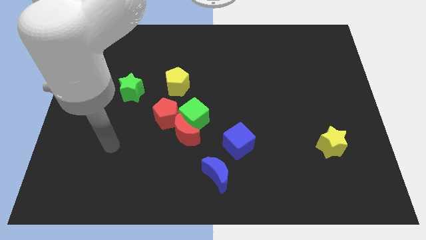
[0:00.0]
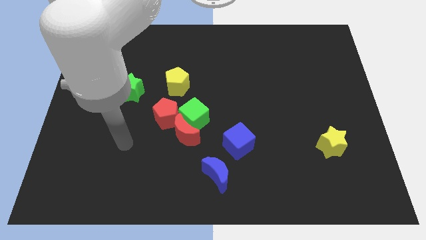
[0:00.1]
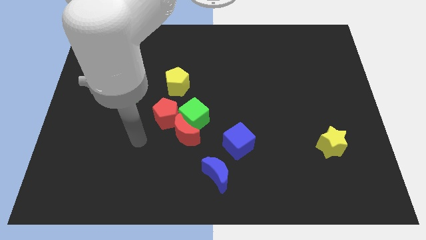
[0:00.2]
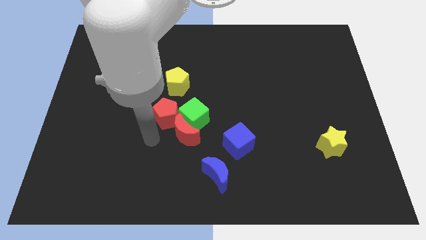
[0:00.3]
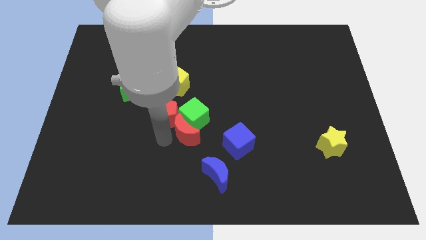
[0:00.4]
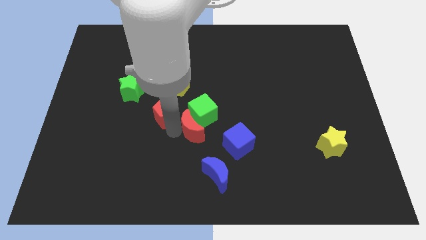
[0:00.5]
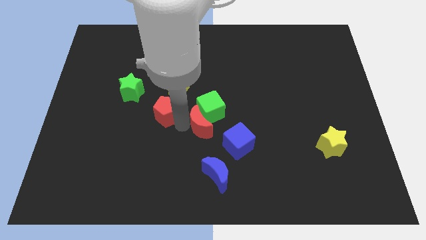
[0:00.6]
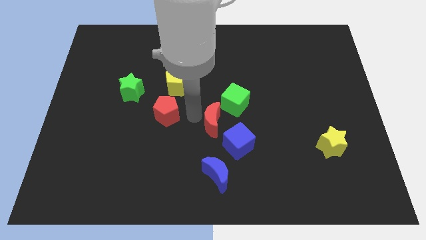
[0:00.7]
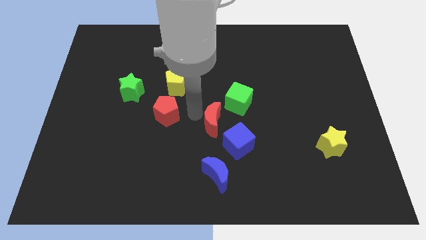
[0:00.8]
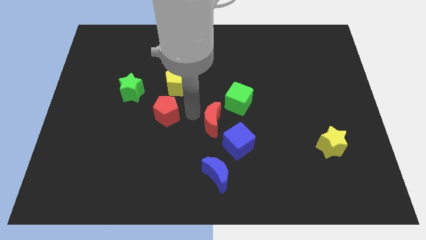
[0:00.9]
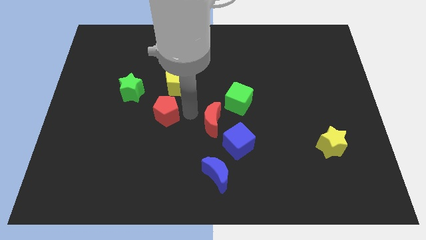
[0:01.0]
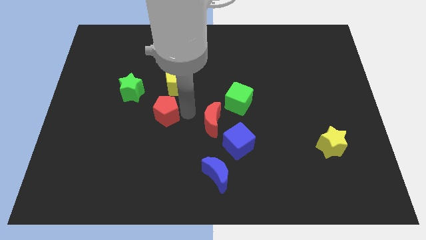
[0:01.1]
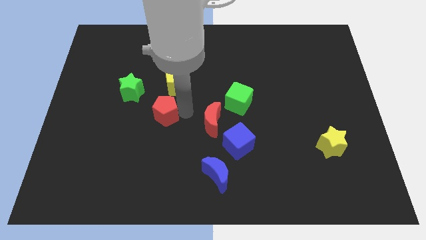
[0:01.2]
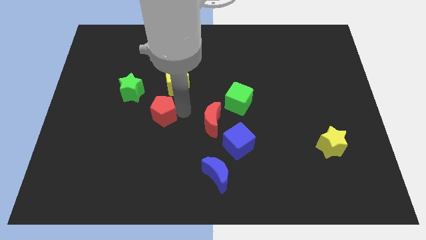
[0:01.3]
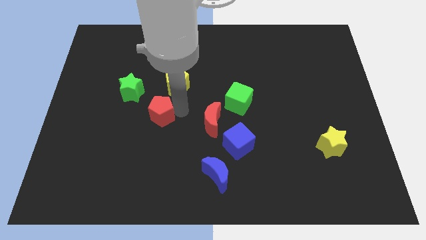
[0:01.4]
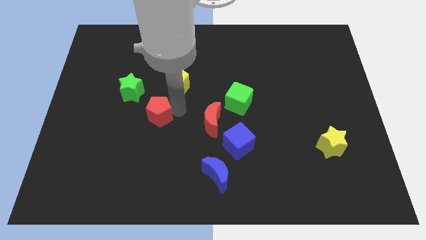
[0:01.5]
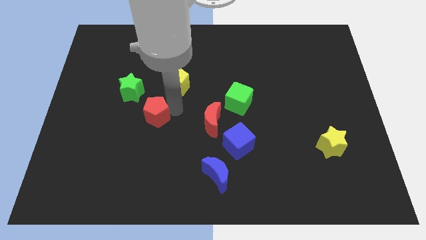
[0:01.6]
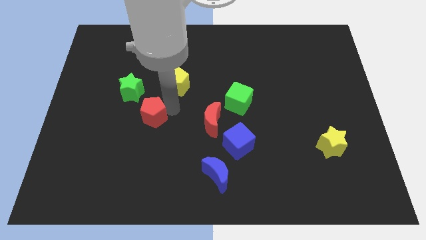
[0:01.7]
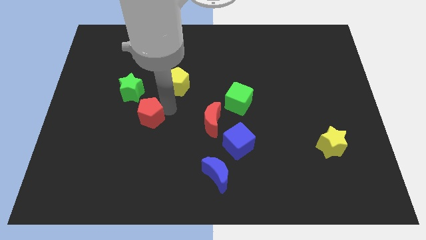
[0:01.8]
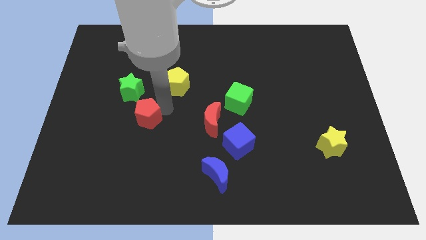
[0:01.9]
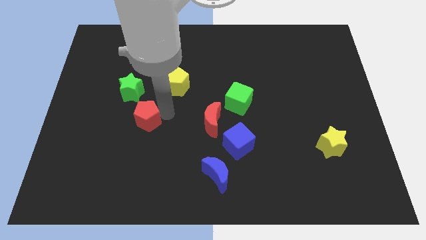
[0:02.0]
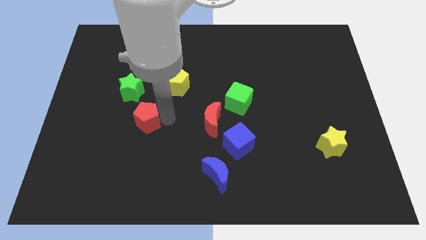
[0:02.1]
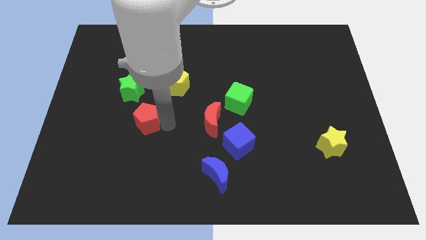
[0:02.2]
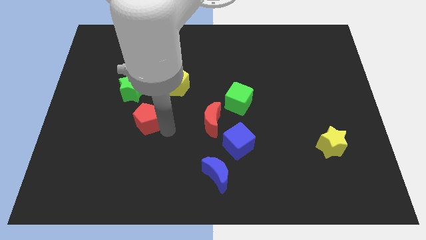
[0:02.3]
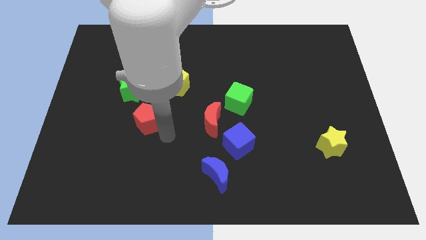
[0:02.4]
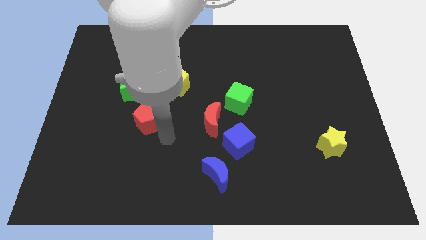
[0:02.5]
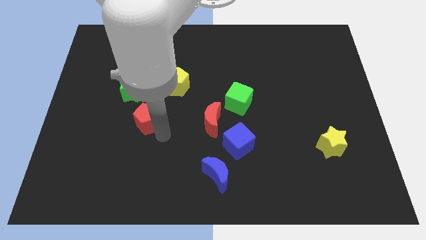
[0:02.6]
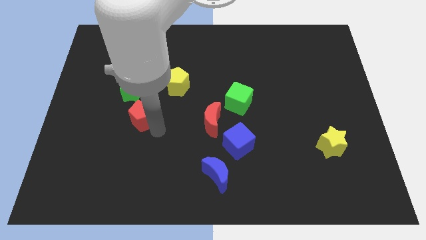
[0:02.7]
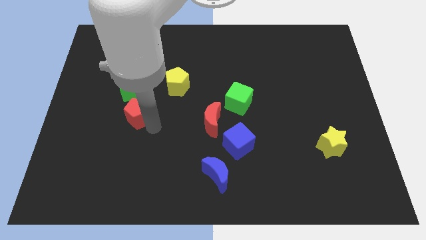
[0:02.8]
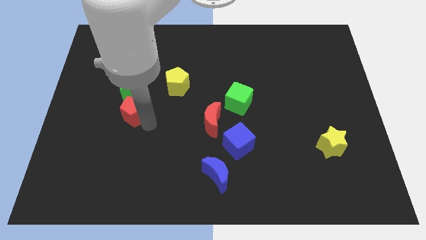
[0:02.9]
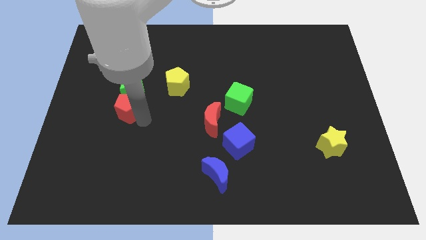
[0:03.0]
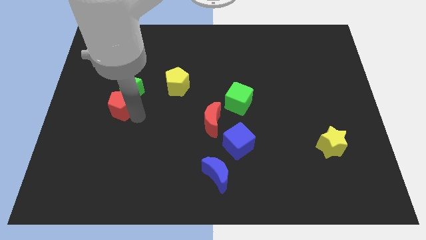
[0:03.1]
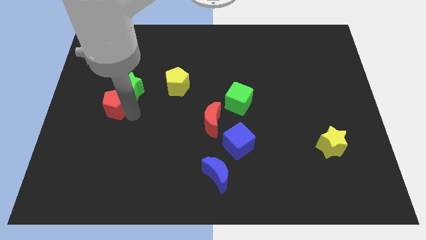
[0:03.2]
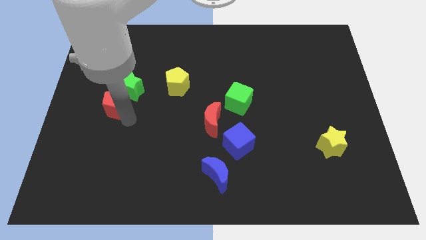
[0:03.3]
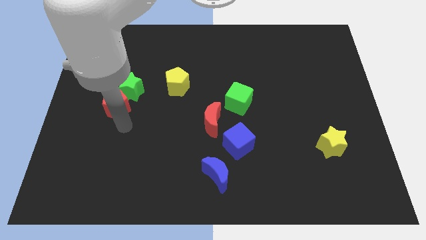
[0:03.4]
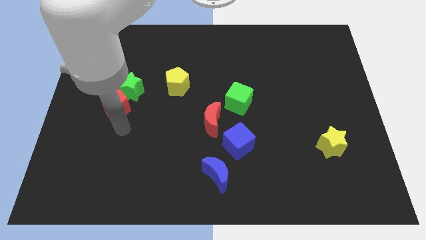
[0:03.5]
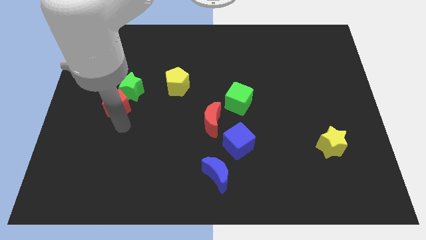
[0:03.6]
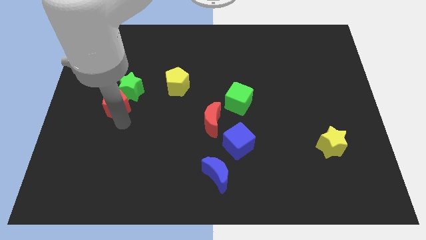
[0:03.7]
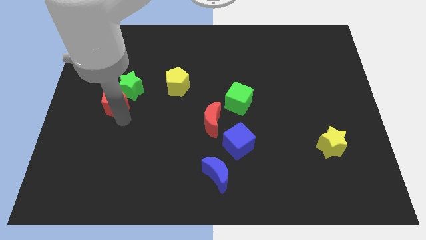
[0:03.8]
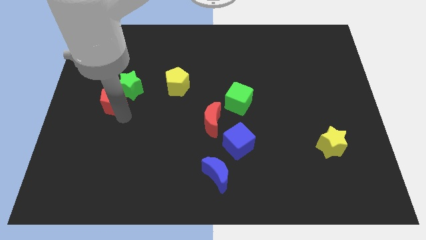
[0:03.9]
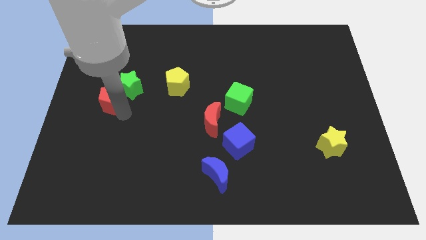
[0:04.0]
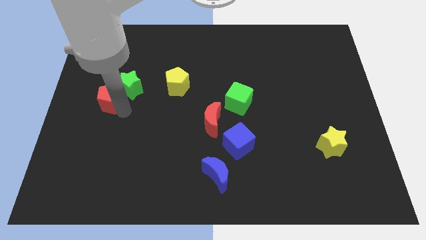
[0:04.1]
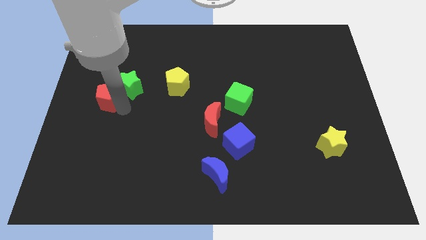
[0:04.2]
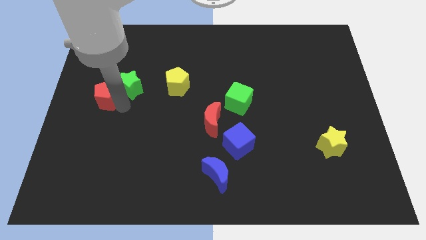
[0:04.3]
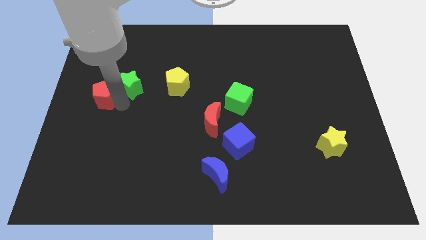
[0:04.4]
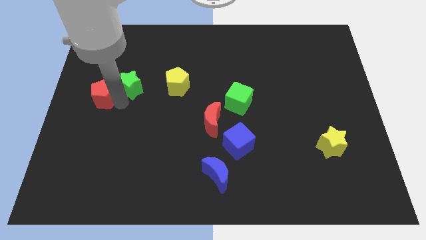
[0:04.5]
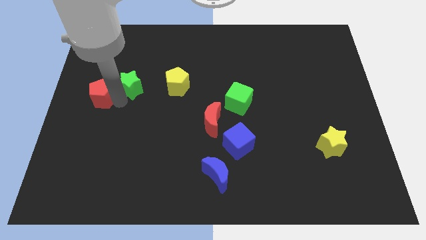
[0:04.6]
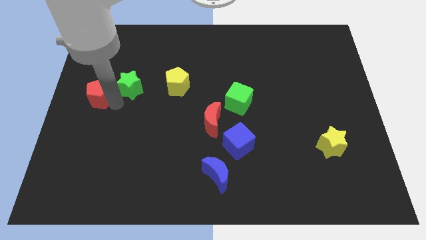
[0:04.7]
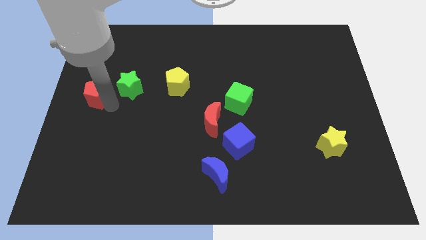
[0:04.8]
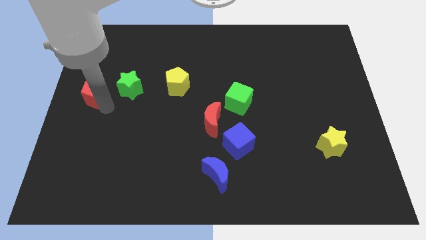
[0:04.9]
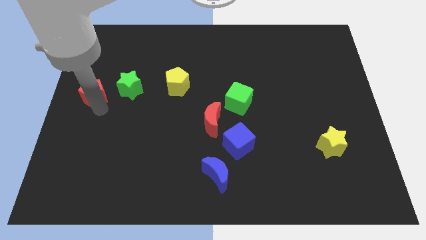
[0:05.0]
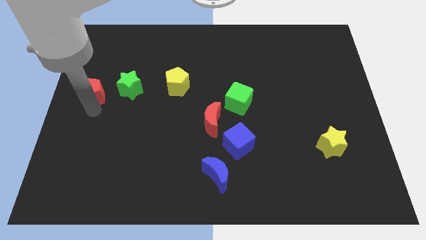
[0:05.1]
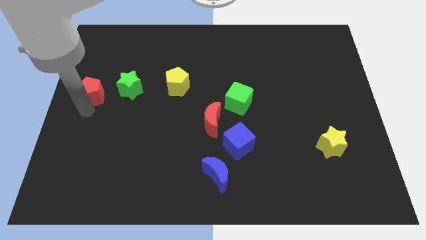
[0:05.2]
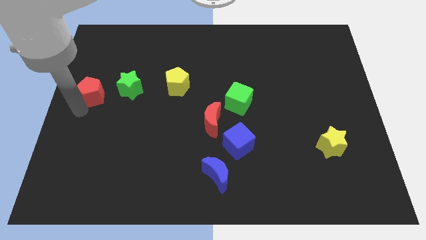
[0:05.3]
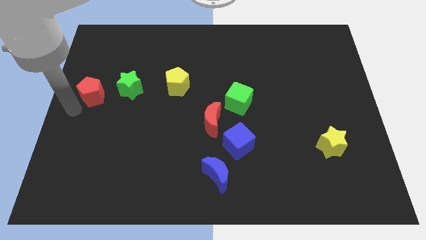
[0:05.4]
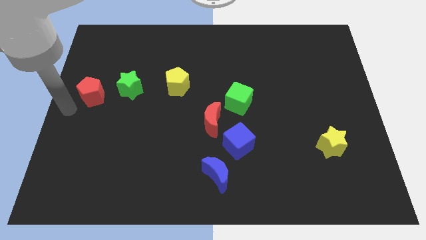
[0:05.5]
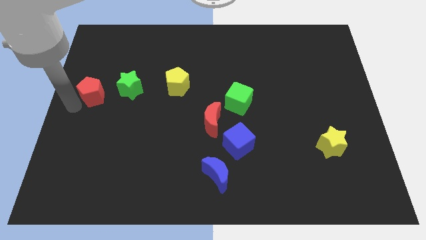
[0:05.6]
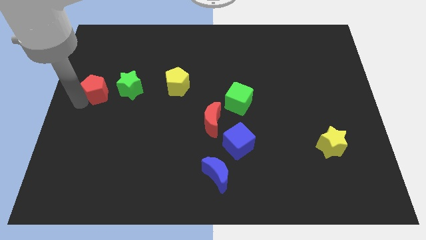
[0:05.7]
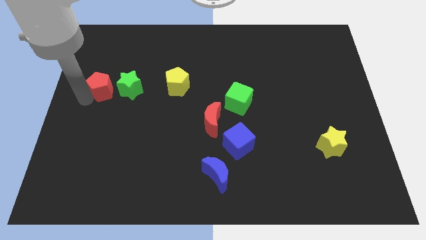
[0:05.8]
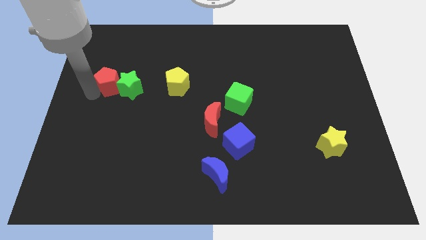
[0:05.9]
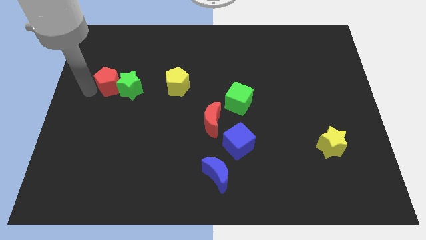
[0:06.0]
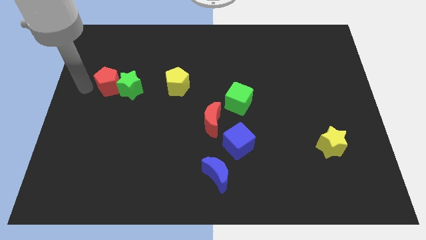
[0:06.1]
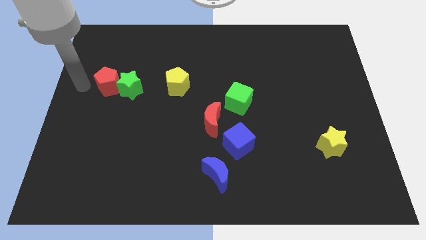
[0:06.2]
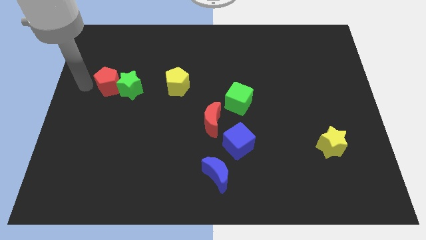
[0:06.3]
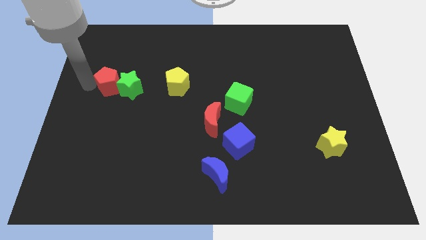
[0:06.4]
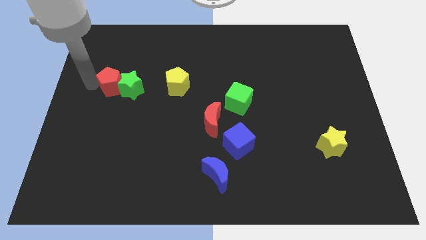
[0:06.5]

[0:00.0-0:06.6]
put the red pentagon just left of the yellow pentagon
